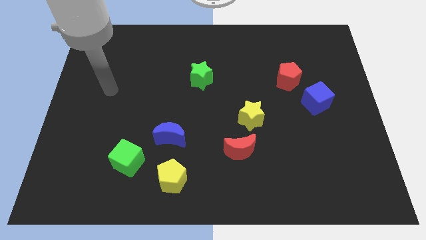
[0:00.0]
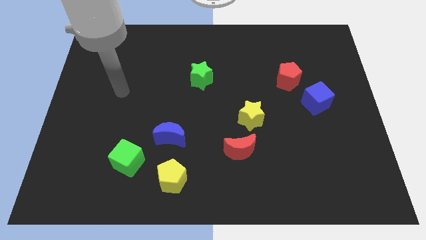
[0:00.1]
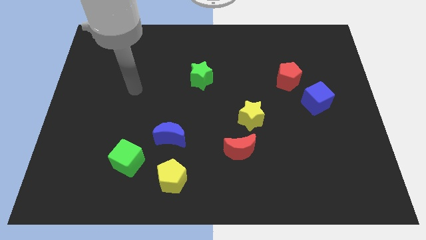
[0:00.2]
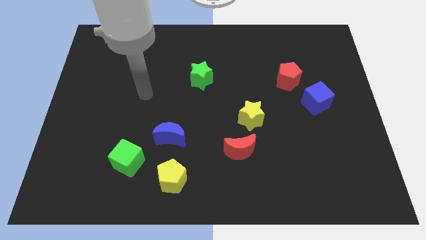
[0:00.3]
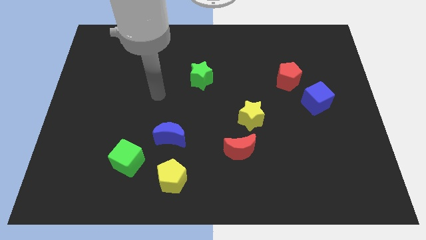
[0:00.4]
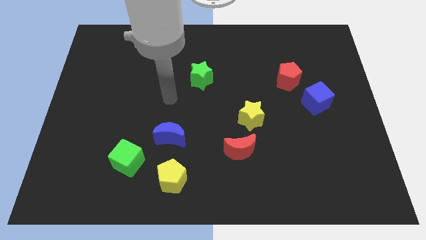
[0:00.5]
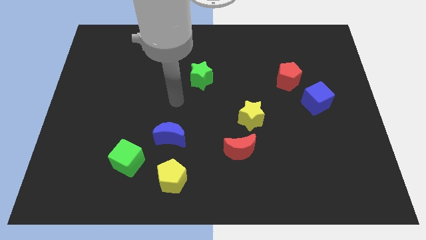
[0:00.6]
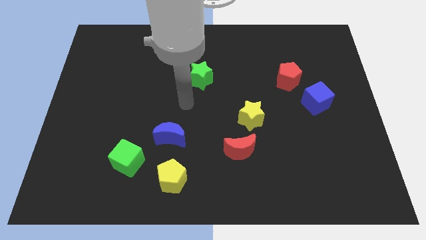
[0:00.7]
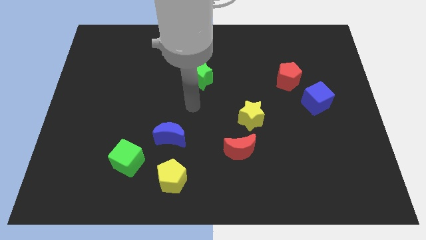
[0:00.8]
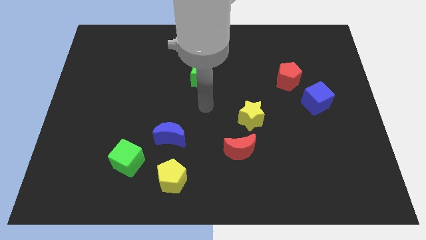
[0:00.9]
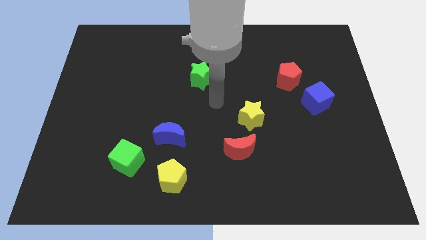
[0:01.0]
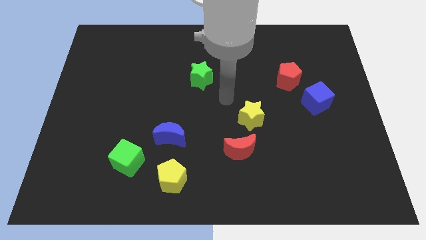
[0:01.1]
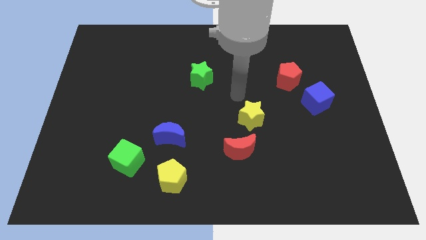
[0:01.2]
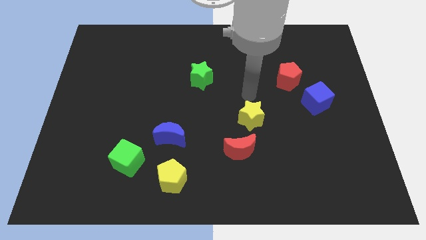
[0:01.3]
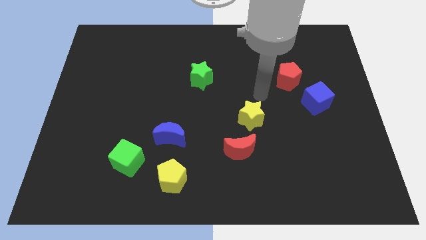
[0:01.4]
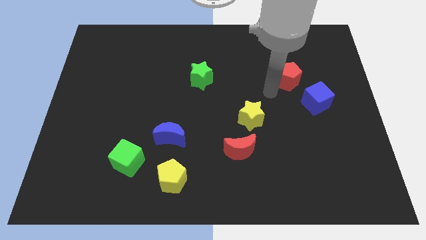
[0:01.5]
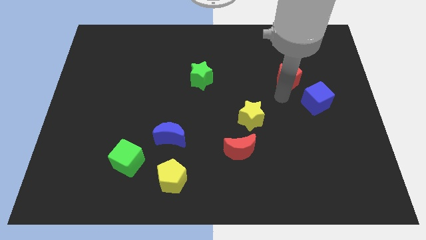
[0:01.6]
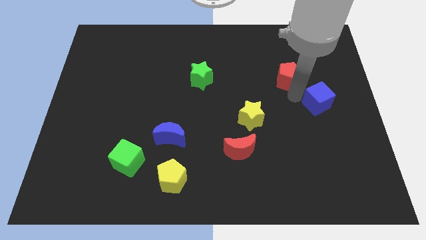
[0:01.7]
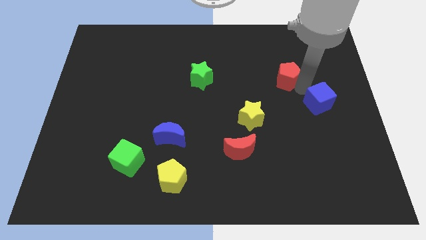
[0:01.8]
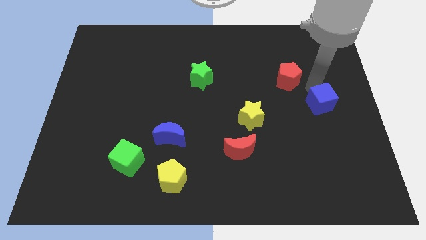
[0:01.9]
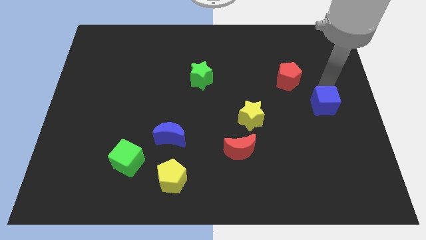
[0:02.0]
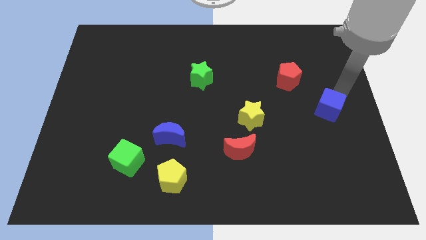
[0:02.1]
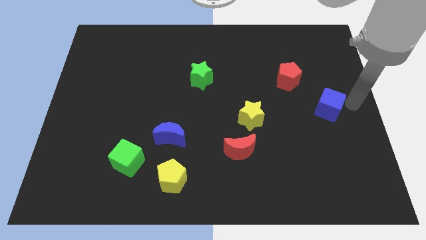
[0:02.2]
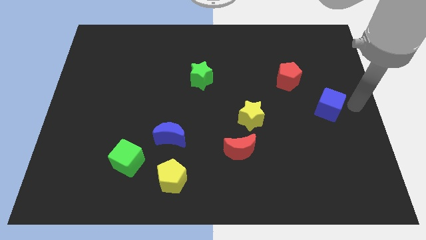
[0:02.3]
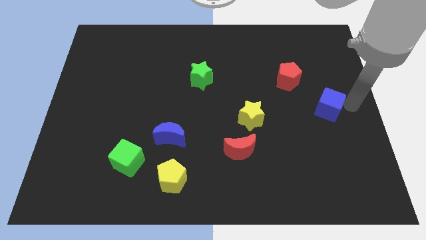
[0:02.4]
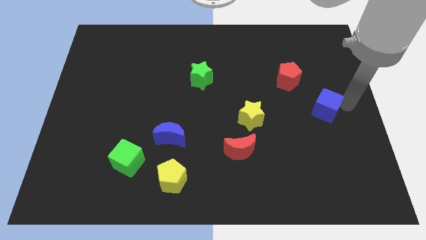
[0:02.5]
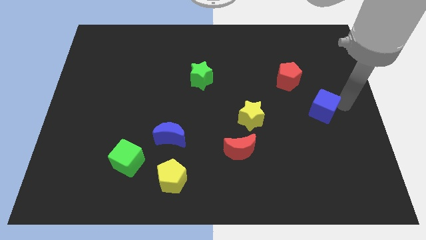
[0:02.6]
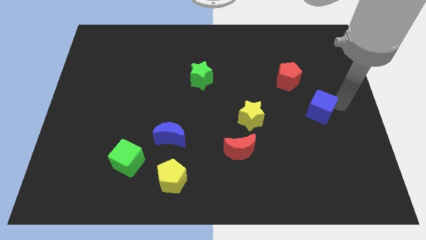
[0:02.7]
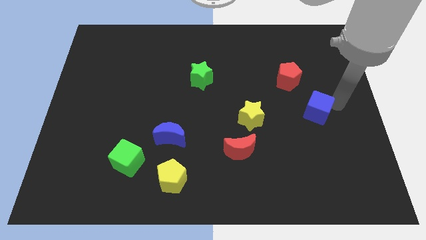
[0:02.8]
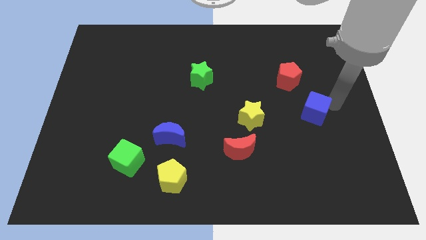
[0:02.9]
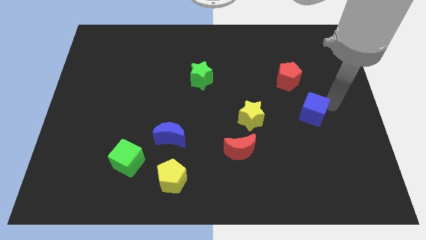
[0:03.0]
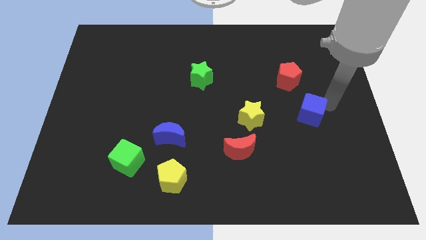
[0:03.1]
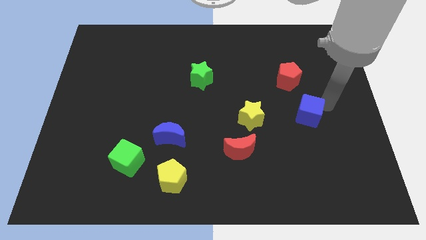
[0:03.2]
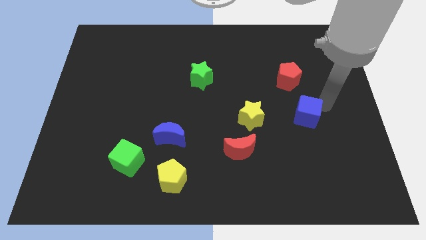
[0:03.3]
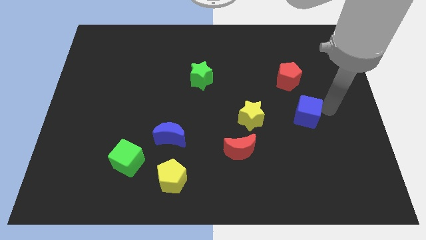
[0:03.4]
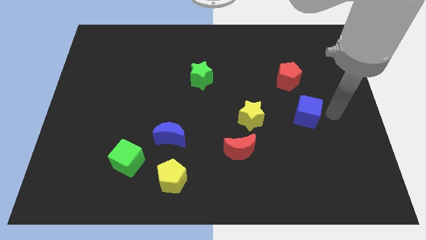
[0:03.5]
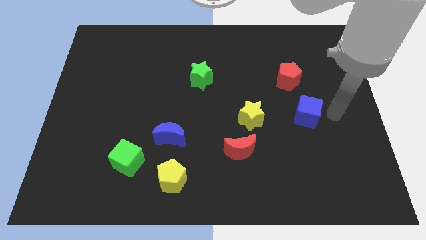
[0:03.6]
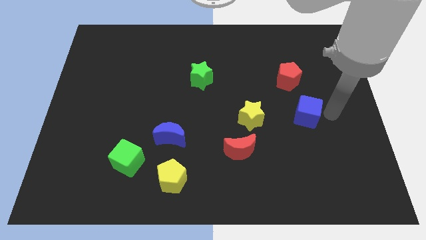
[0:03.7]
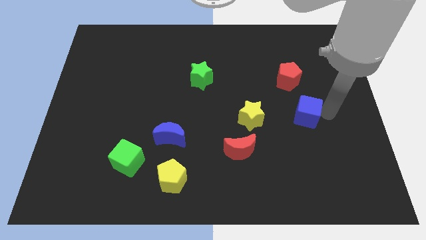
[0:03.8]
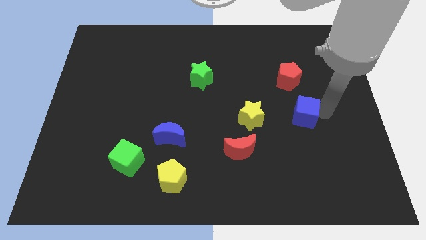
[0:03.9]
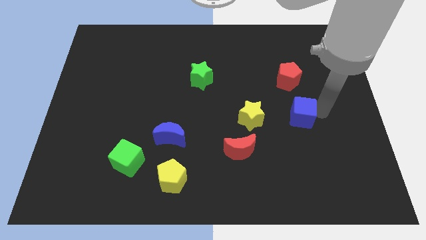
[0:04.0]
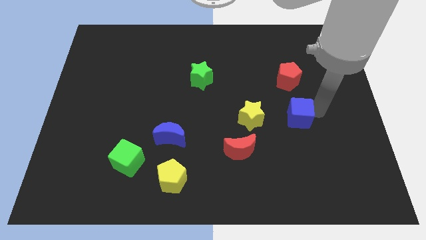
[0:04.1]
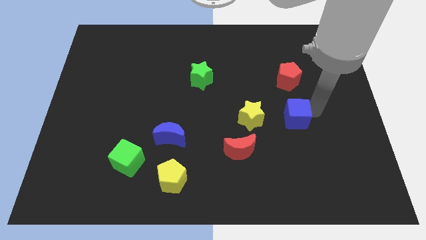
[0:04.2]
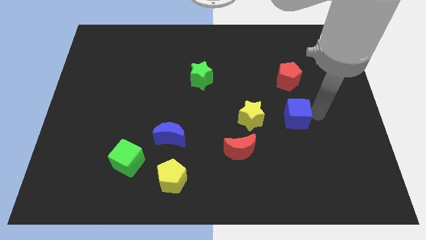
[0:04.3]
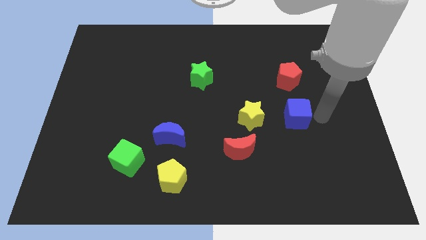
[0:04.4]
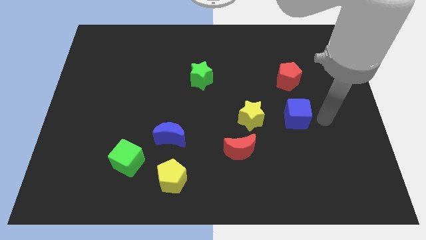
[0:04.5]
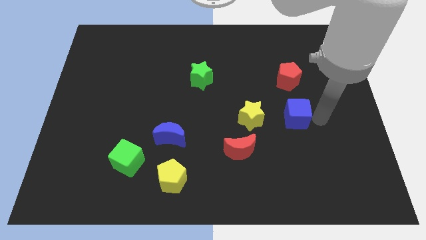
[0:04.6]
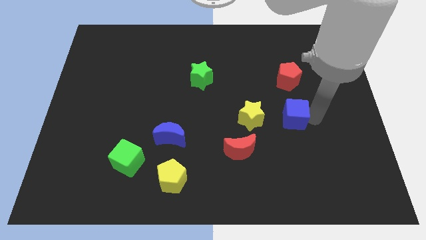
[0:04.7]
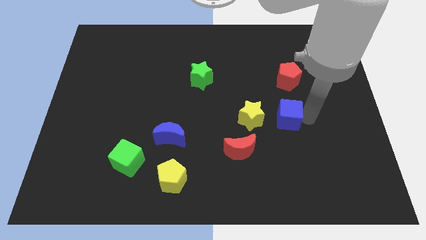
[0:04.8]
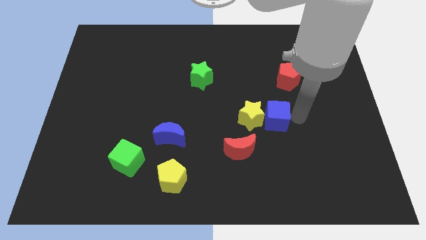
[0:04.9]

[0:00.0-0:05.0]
push the blue cube close to the yellow star

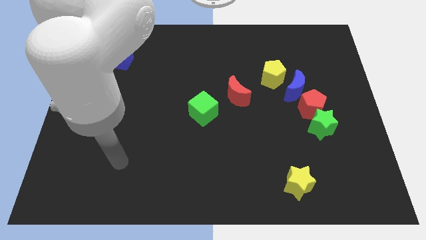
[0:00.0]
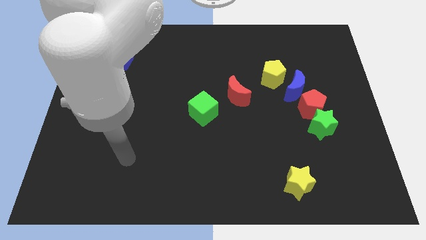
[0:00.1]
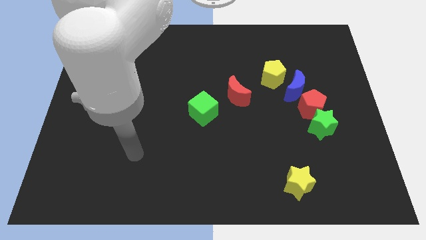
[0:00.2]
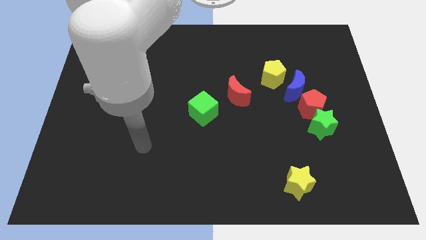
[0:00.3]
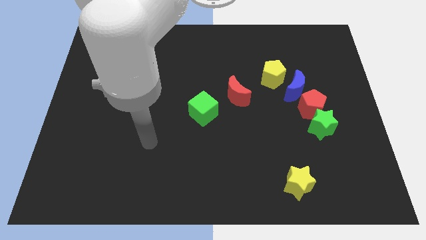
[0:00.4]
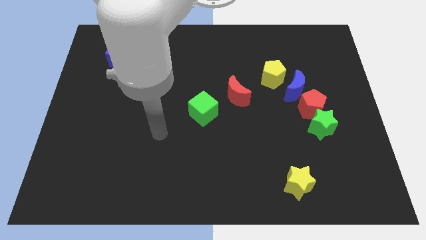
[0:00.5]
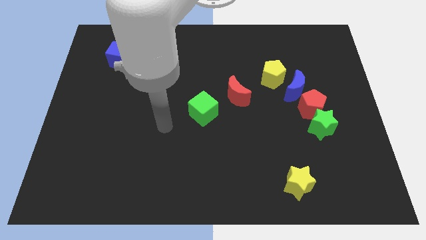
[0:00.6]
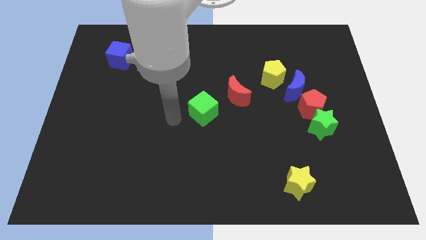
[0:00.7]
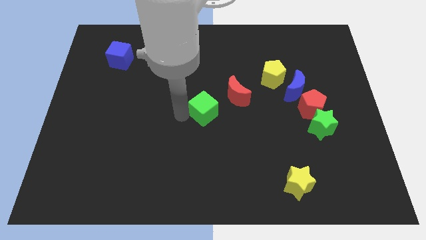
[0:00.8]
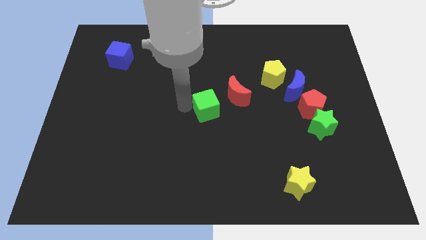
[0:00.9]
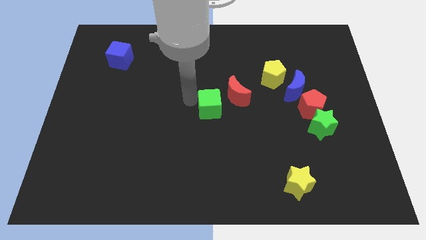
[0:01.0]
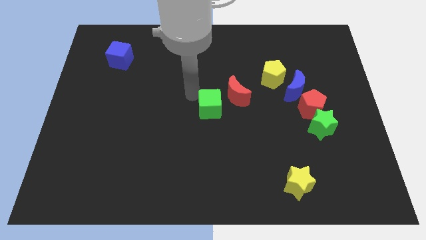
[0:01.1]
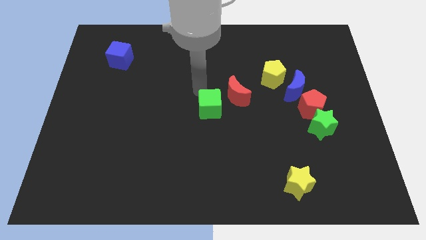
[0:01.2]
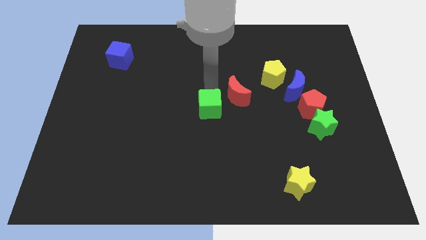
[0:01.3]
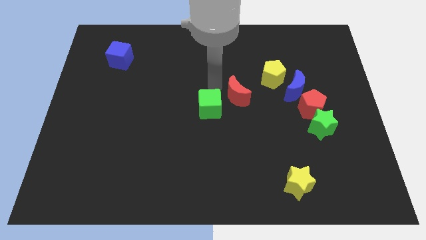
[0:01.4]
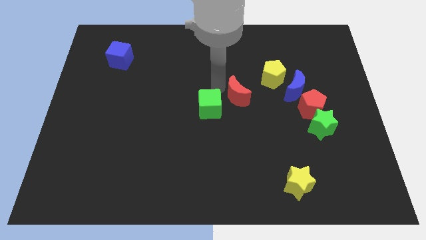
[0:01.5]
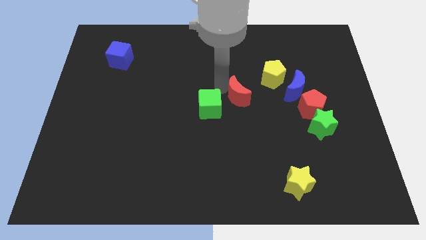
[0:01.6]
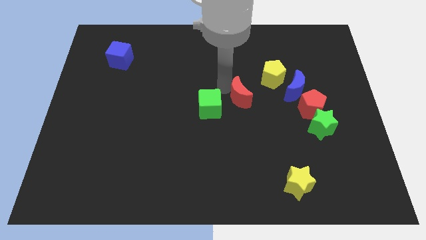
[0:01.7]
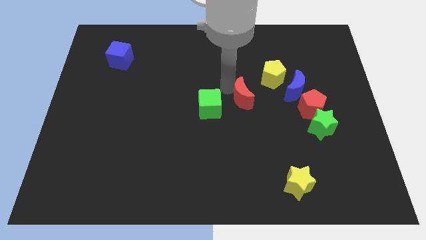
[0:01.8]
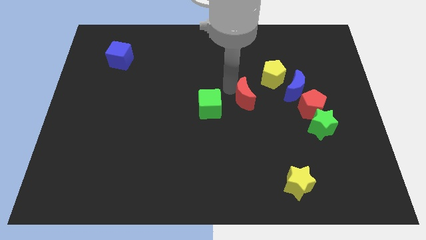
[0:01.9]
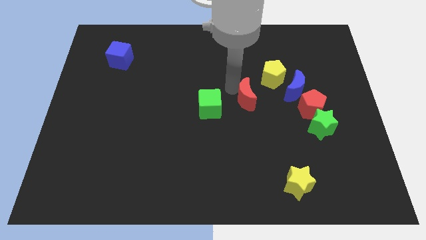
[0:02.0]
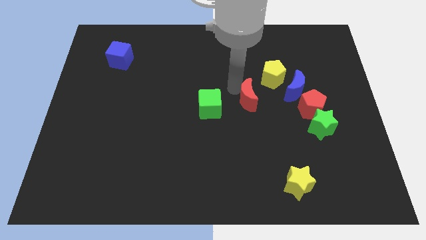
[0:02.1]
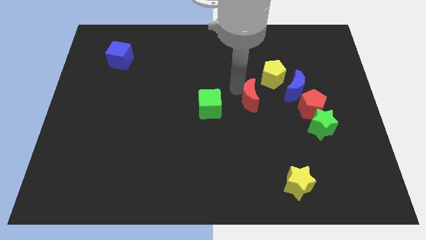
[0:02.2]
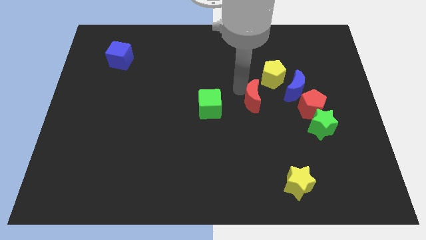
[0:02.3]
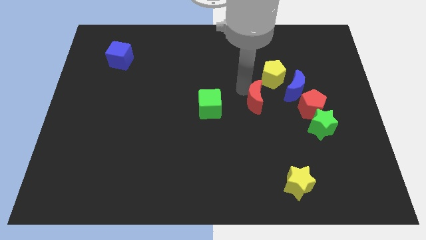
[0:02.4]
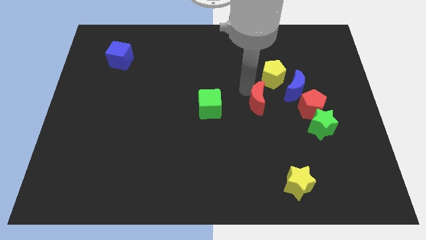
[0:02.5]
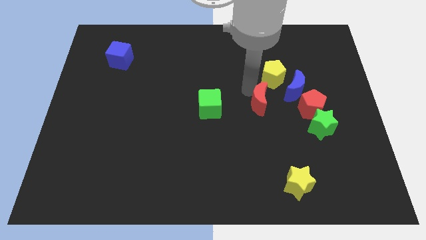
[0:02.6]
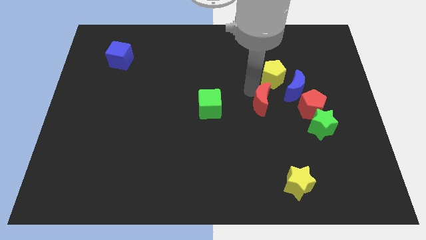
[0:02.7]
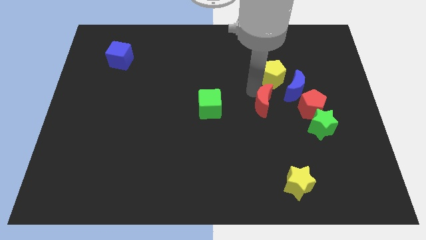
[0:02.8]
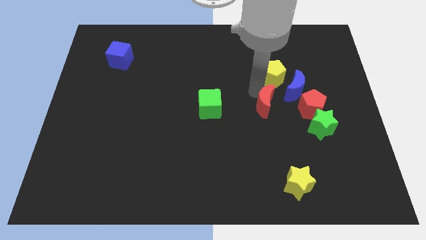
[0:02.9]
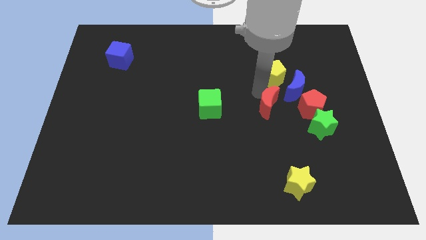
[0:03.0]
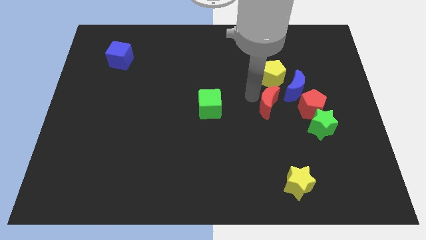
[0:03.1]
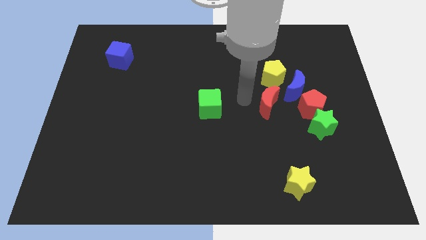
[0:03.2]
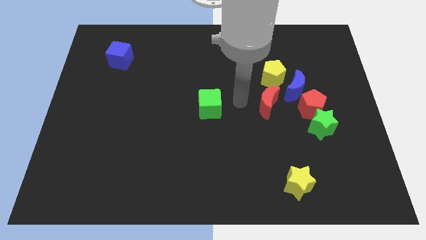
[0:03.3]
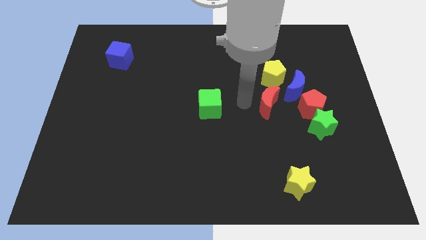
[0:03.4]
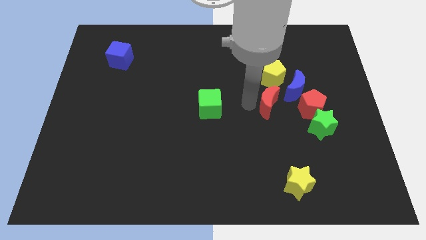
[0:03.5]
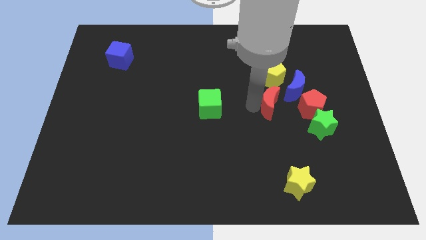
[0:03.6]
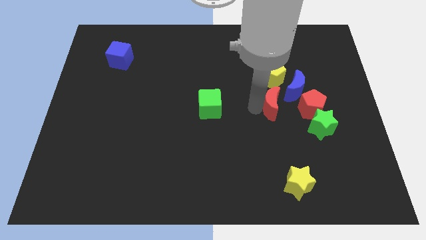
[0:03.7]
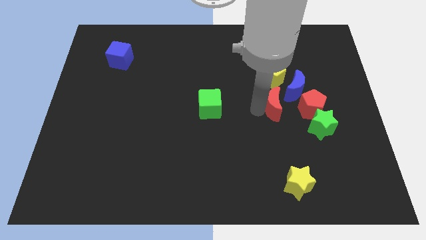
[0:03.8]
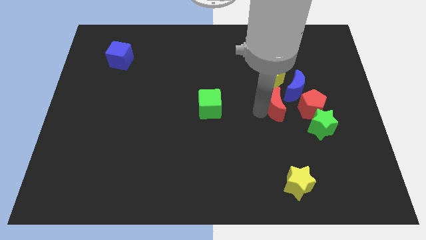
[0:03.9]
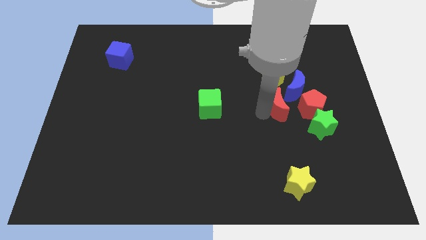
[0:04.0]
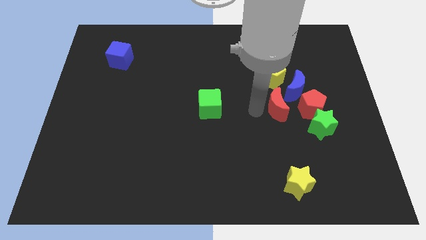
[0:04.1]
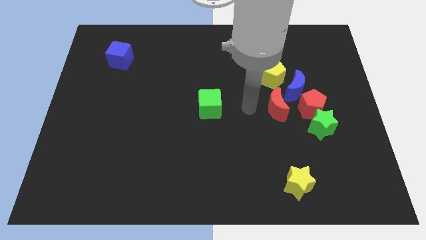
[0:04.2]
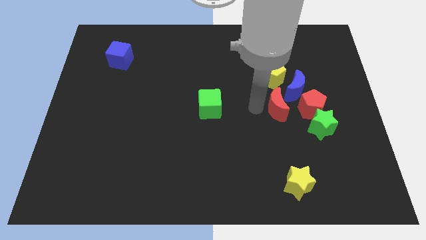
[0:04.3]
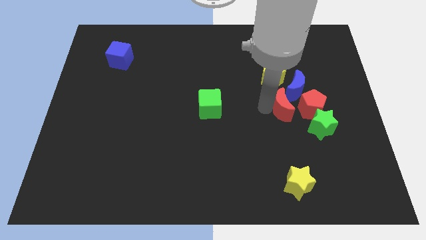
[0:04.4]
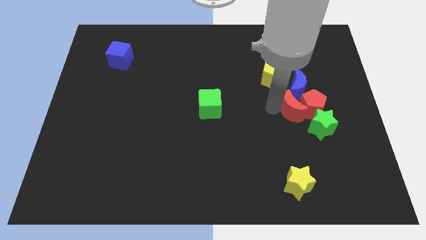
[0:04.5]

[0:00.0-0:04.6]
push the red moon close to the red pentagon
